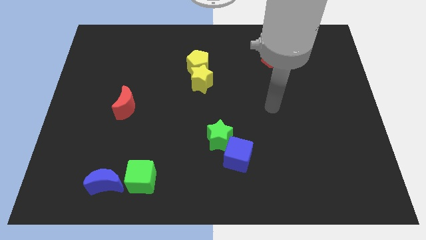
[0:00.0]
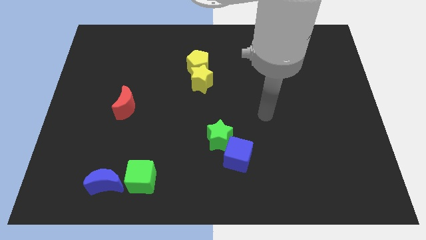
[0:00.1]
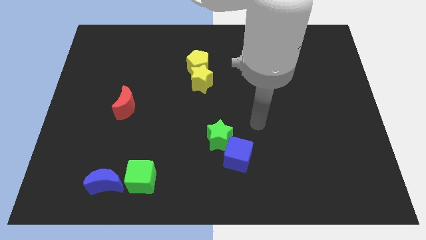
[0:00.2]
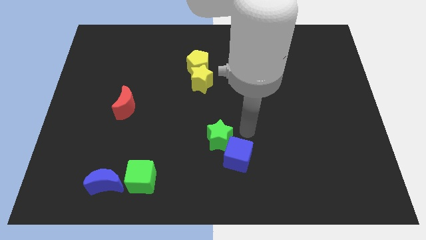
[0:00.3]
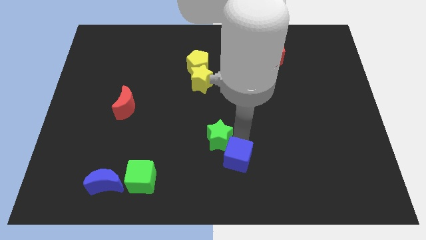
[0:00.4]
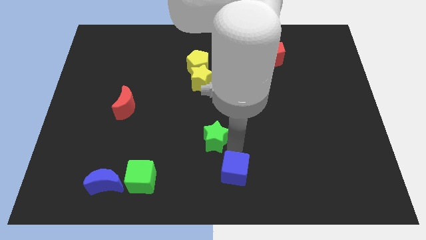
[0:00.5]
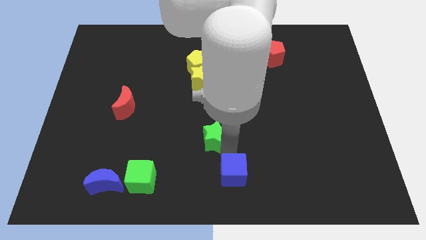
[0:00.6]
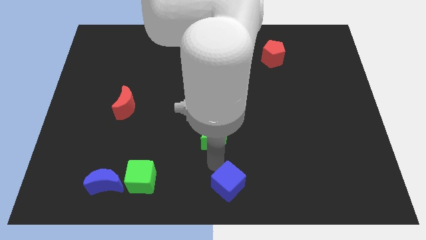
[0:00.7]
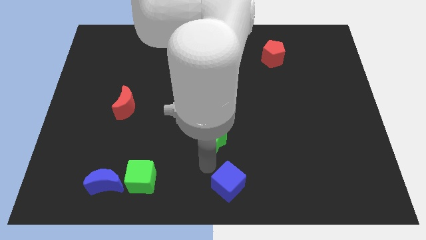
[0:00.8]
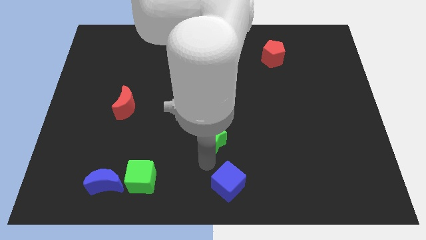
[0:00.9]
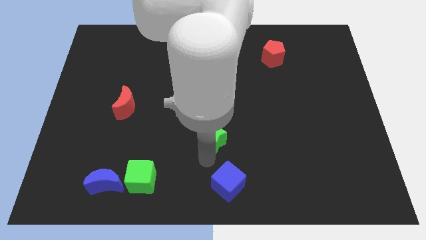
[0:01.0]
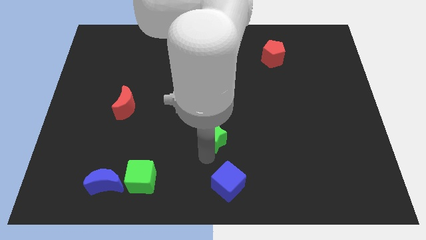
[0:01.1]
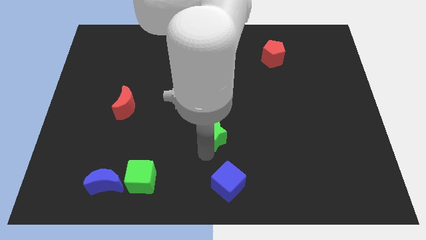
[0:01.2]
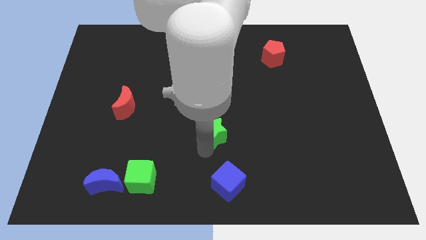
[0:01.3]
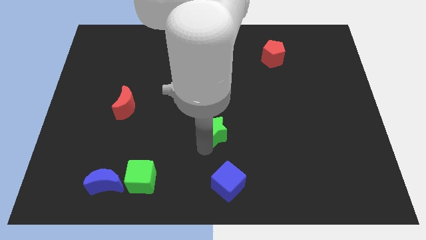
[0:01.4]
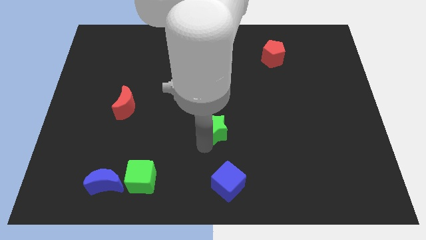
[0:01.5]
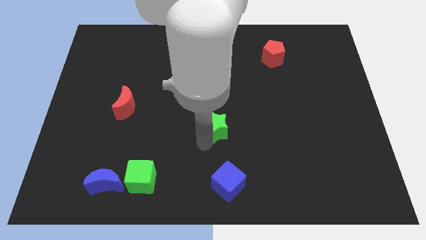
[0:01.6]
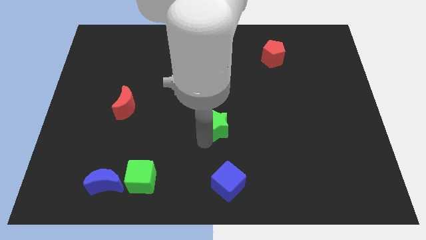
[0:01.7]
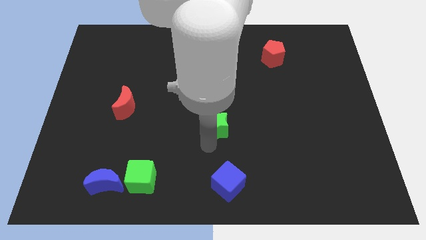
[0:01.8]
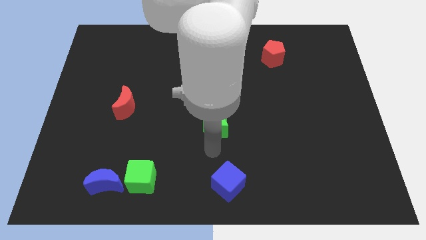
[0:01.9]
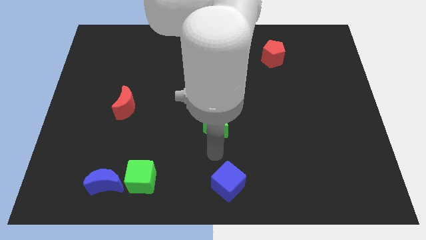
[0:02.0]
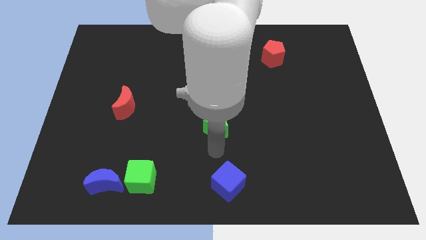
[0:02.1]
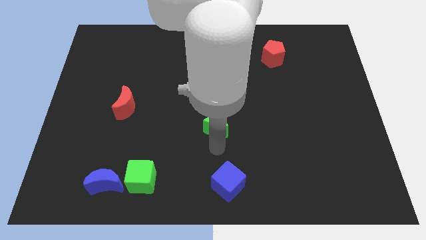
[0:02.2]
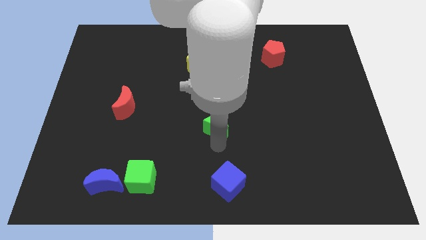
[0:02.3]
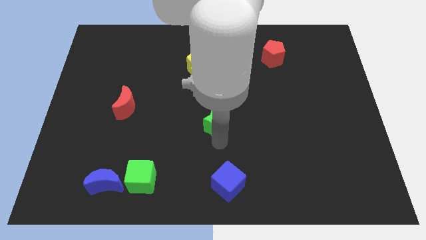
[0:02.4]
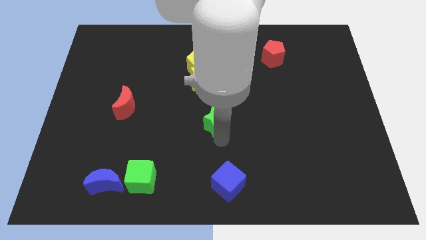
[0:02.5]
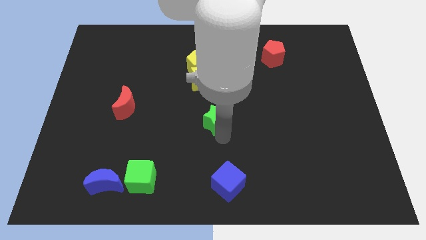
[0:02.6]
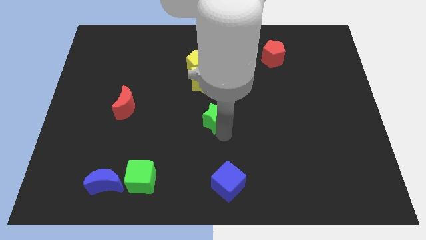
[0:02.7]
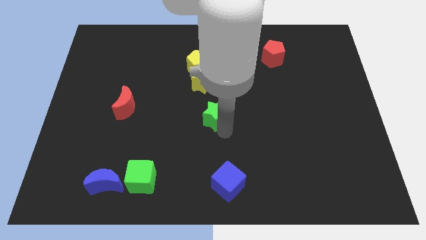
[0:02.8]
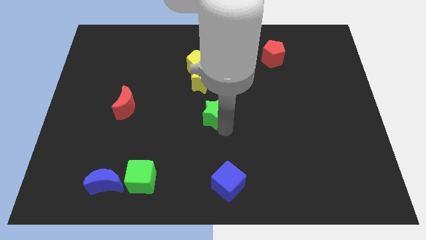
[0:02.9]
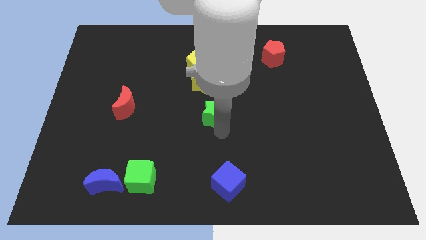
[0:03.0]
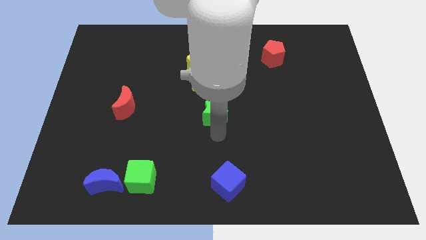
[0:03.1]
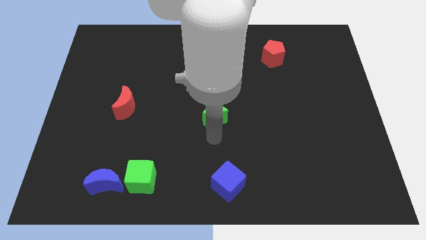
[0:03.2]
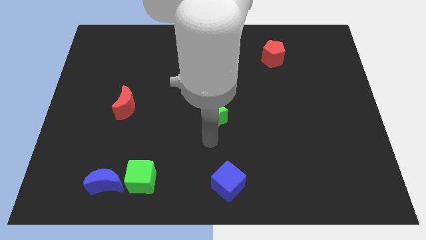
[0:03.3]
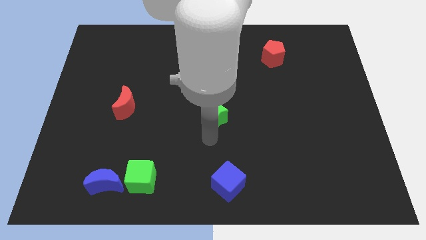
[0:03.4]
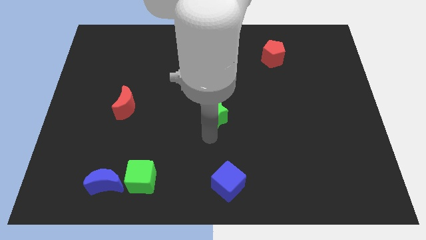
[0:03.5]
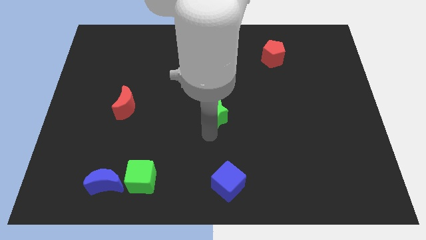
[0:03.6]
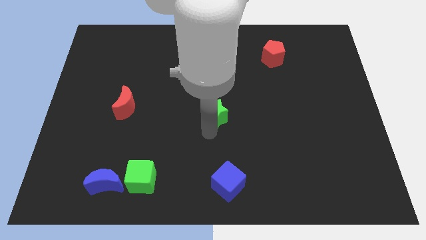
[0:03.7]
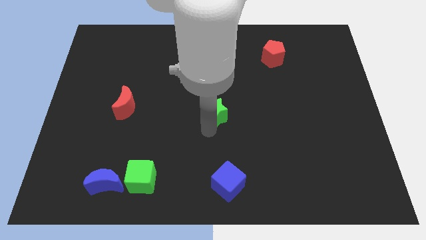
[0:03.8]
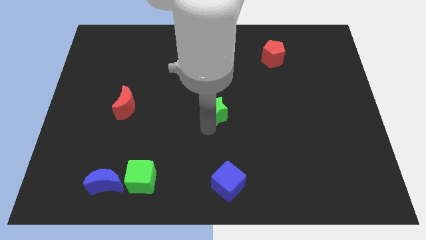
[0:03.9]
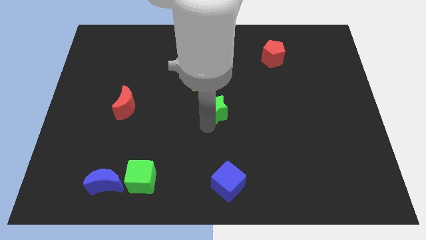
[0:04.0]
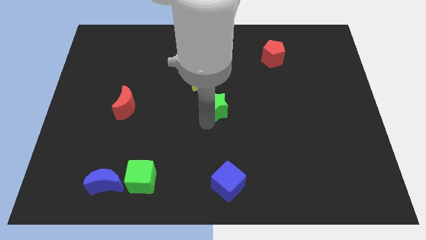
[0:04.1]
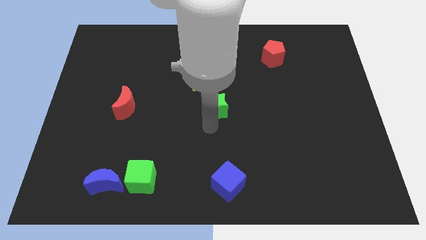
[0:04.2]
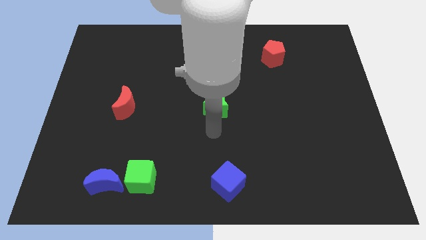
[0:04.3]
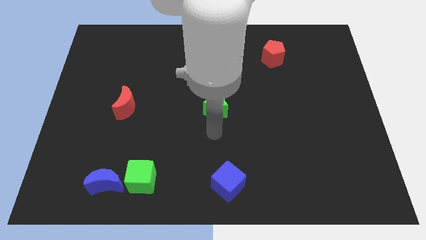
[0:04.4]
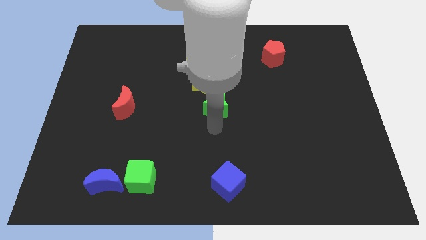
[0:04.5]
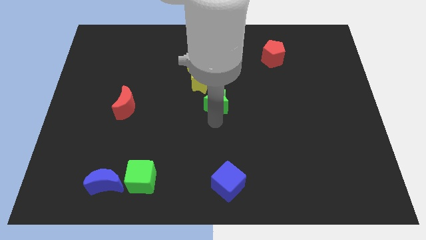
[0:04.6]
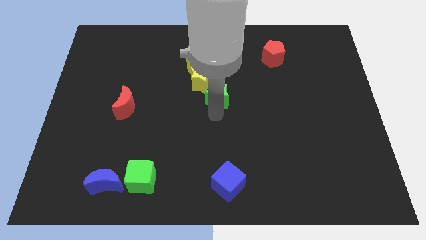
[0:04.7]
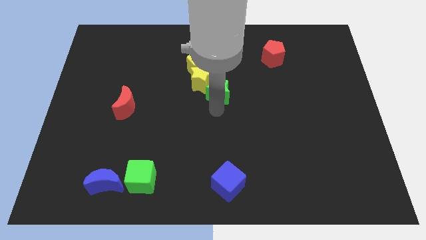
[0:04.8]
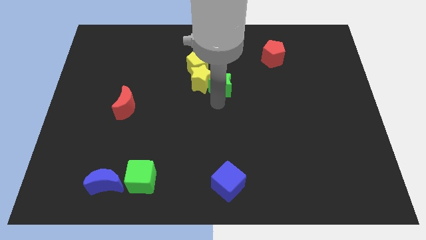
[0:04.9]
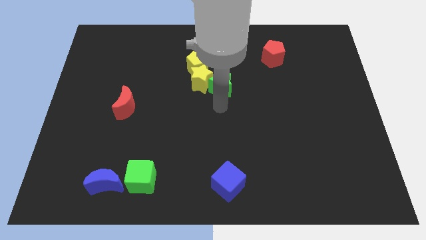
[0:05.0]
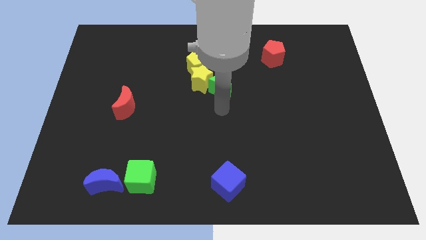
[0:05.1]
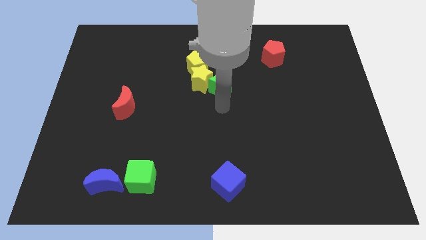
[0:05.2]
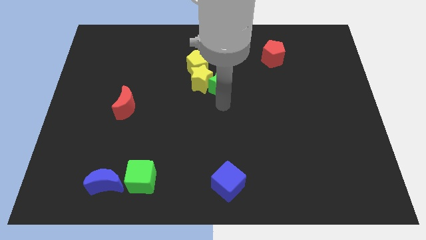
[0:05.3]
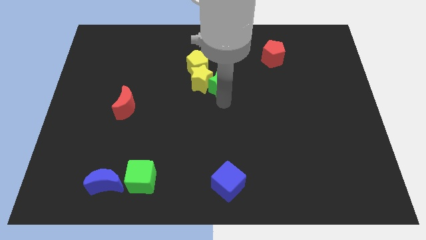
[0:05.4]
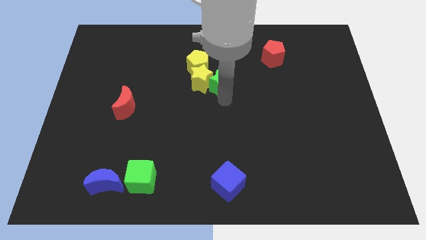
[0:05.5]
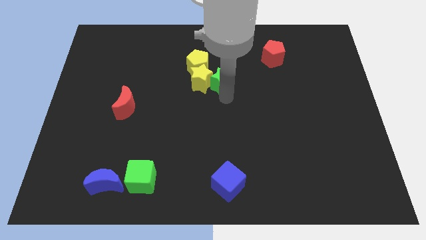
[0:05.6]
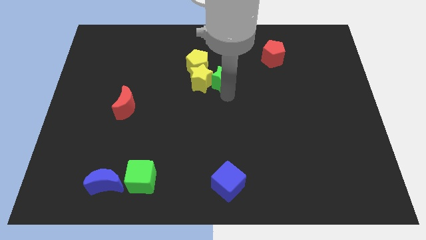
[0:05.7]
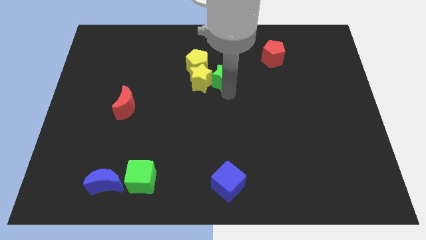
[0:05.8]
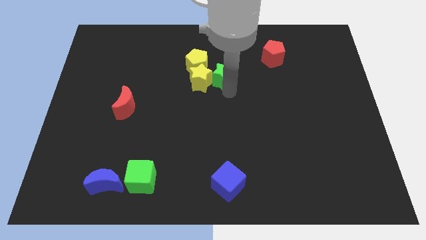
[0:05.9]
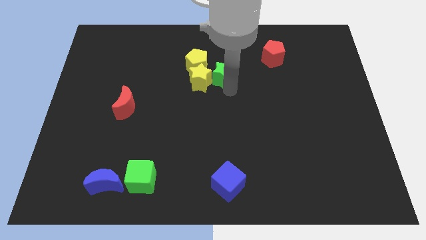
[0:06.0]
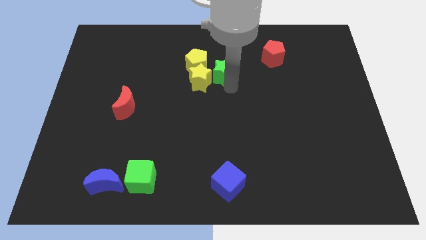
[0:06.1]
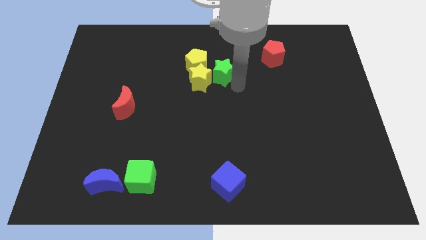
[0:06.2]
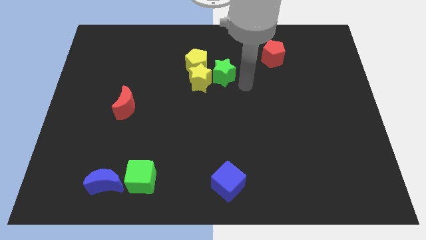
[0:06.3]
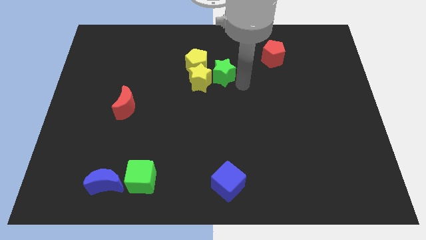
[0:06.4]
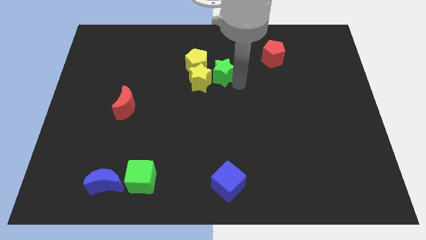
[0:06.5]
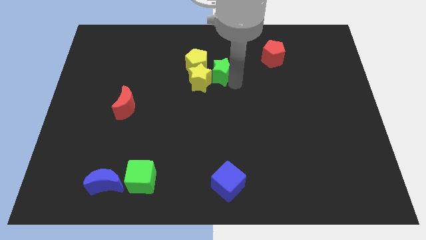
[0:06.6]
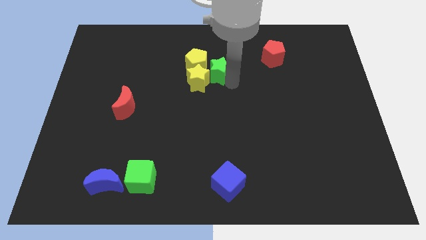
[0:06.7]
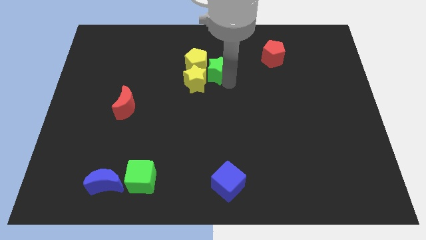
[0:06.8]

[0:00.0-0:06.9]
put the green star towards the yellow pentagon

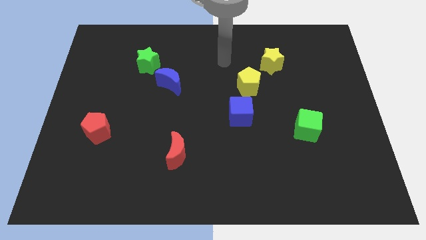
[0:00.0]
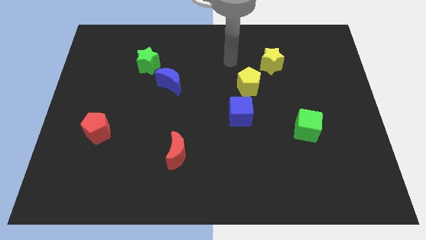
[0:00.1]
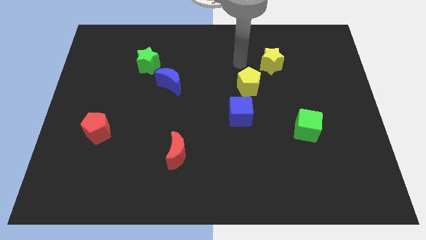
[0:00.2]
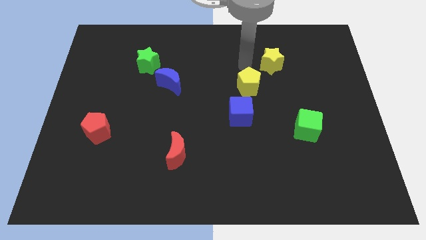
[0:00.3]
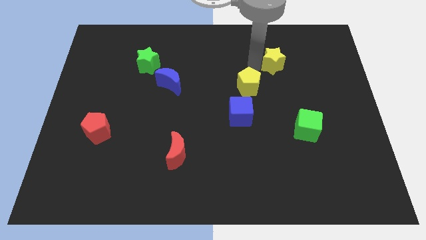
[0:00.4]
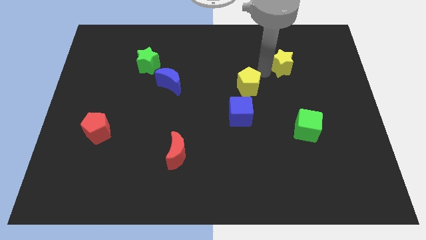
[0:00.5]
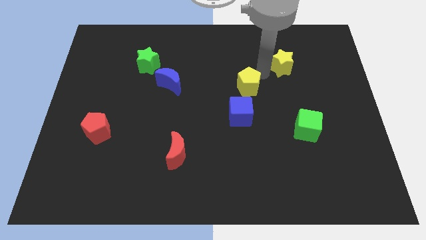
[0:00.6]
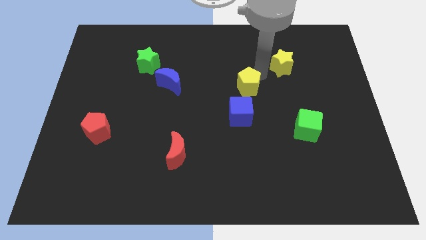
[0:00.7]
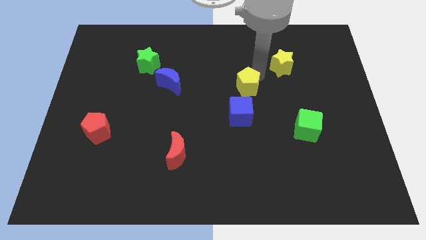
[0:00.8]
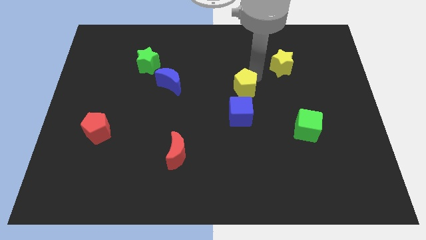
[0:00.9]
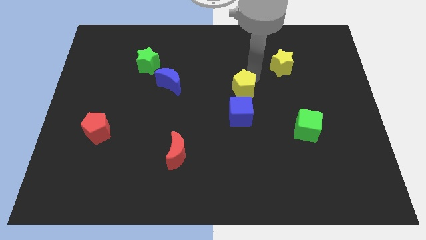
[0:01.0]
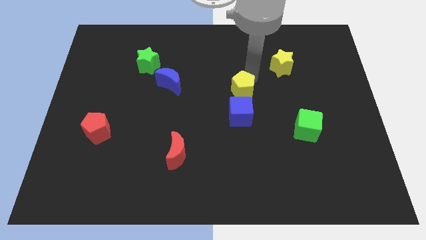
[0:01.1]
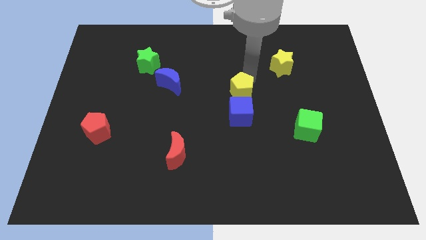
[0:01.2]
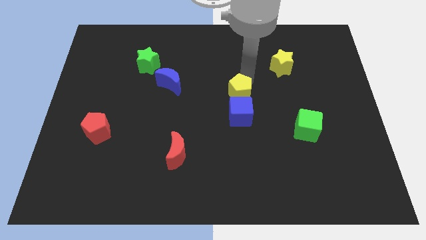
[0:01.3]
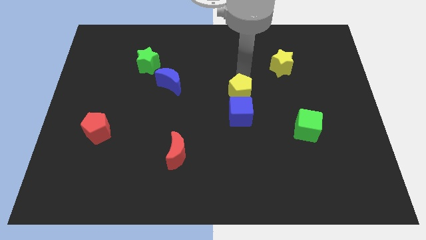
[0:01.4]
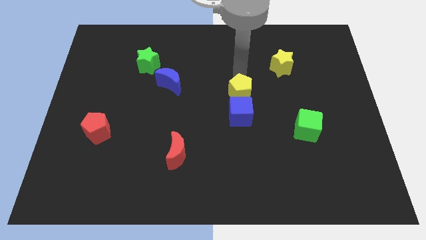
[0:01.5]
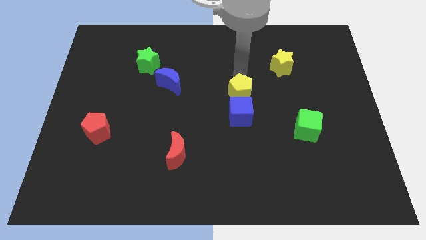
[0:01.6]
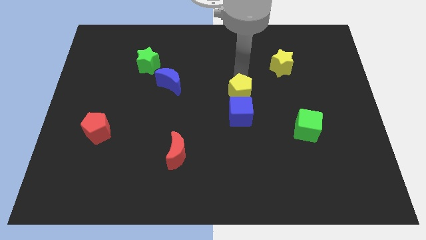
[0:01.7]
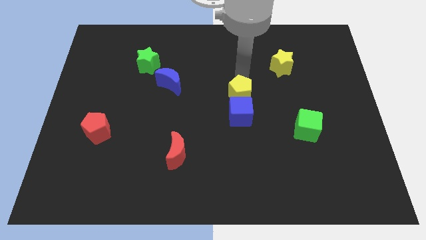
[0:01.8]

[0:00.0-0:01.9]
move the yellow pentagon next to the blue cube
